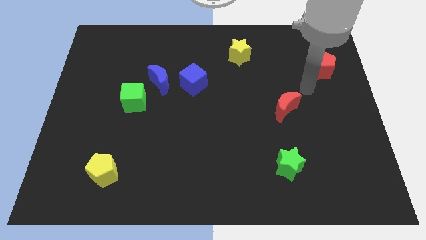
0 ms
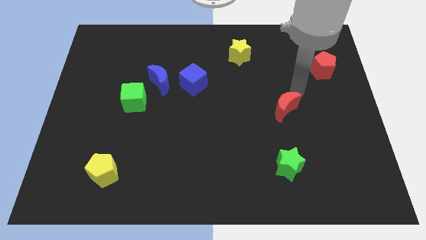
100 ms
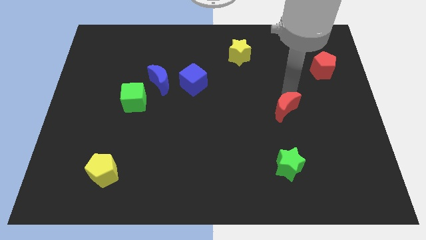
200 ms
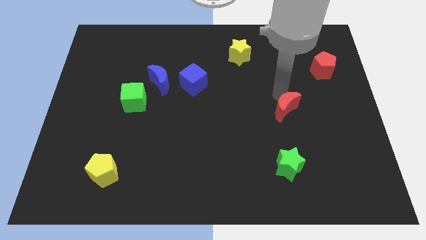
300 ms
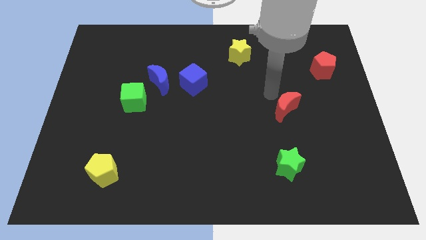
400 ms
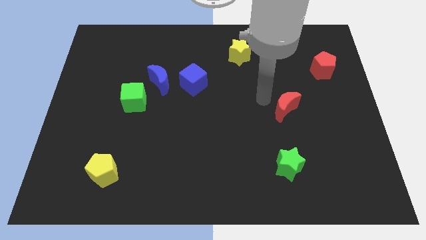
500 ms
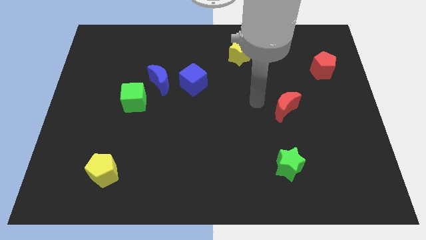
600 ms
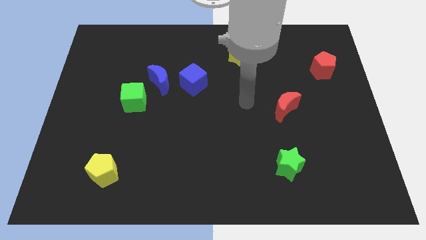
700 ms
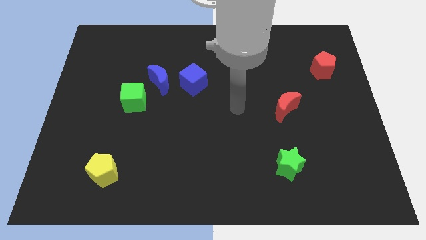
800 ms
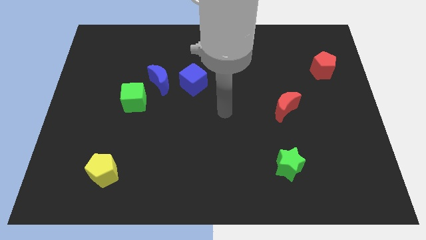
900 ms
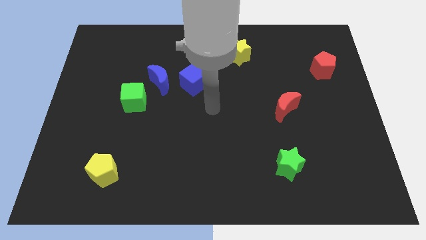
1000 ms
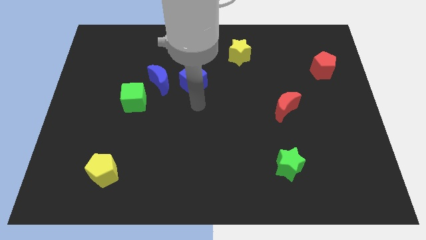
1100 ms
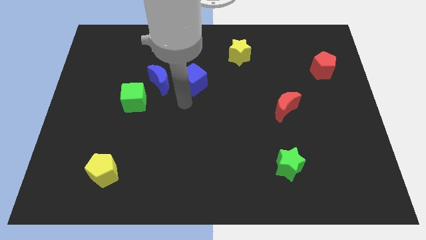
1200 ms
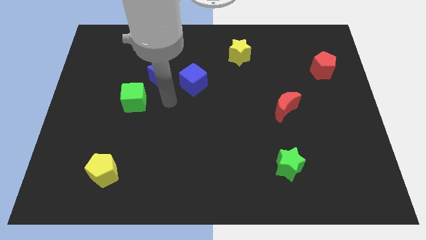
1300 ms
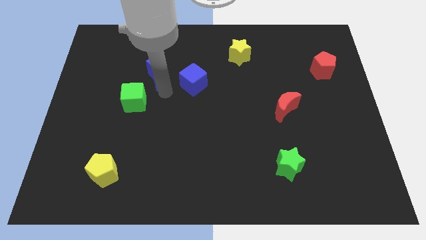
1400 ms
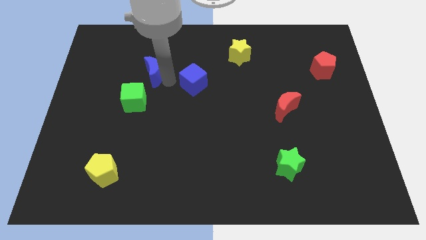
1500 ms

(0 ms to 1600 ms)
separate the blue cube from the blue moon

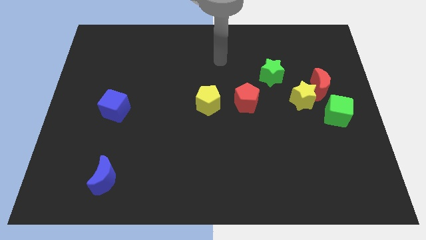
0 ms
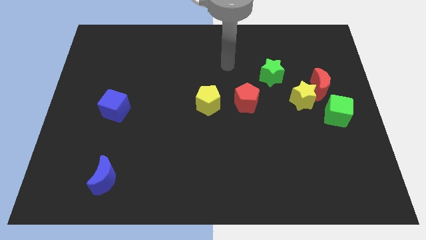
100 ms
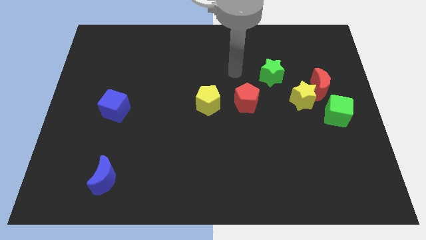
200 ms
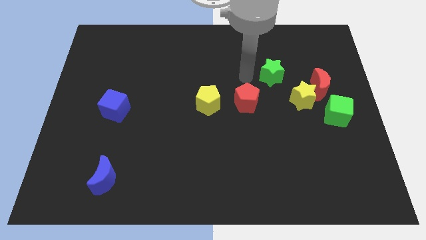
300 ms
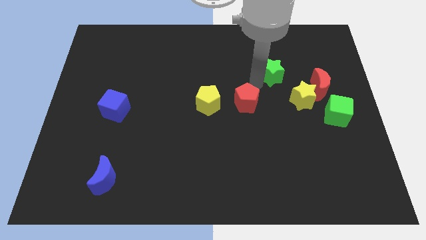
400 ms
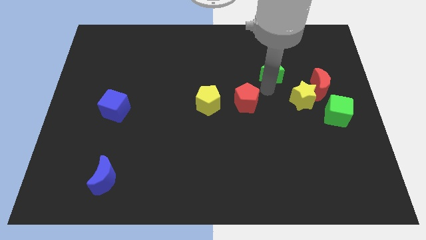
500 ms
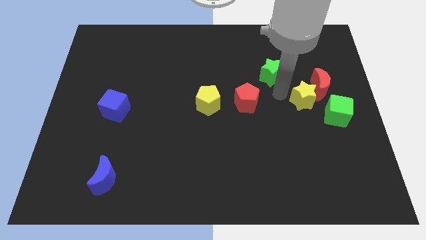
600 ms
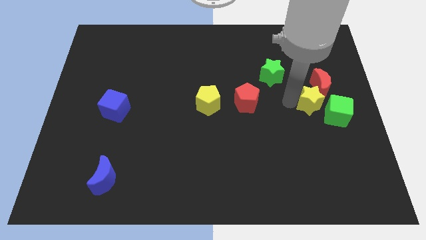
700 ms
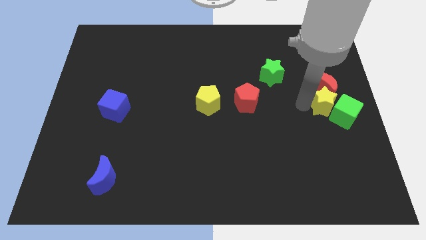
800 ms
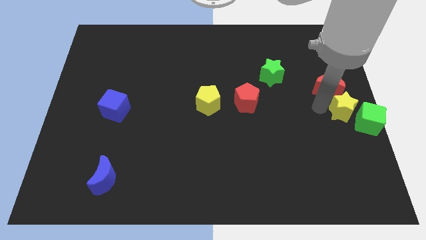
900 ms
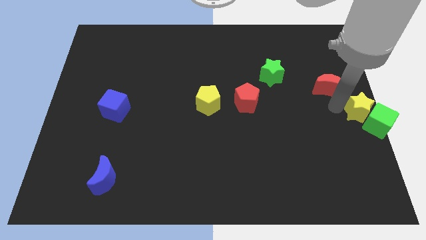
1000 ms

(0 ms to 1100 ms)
separate the red moon from the yellow star and green cube

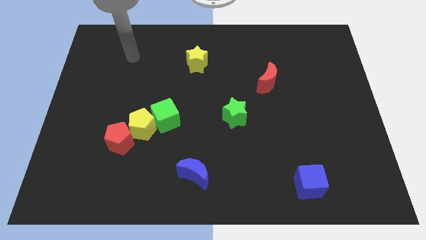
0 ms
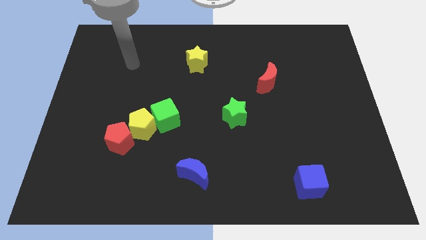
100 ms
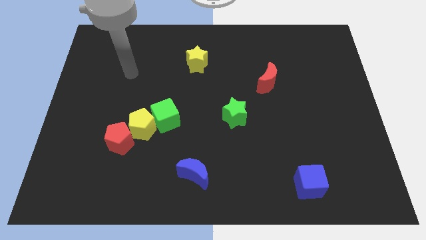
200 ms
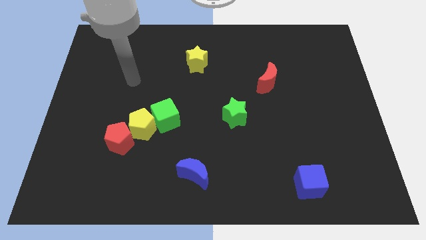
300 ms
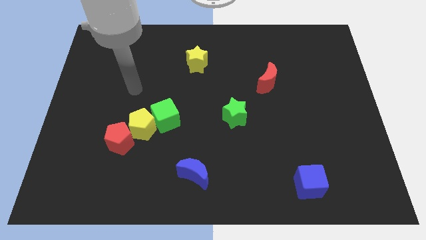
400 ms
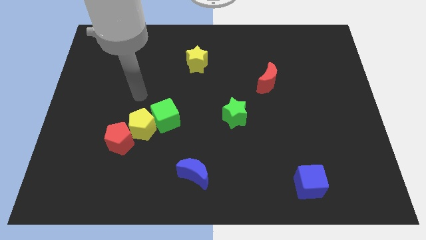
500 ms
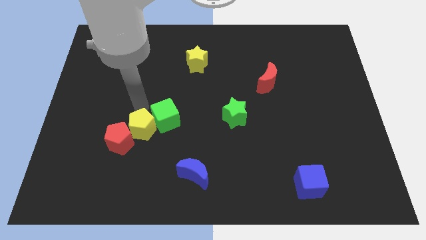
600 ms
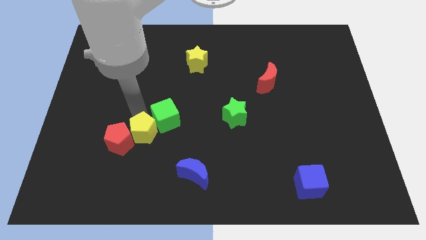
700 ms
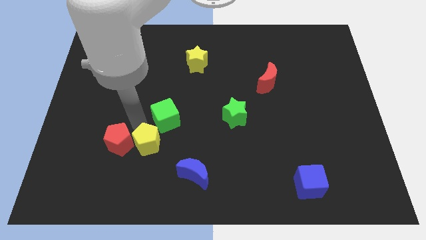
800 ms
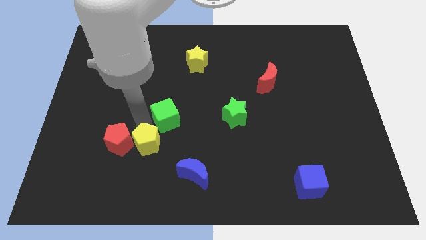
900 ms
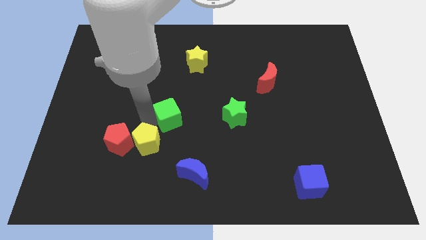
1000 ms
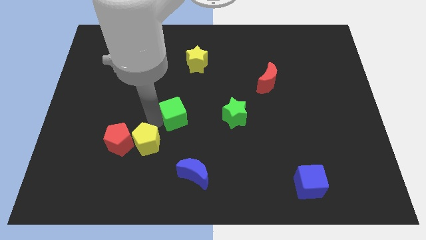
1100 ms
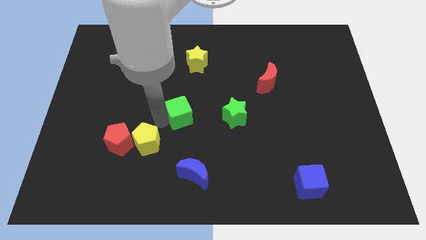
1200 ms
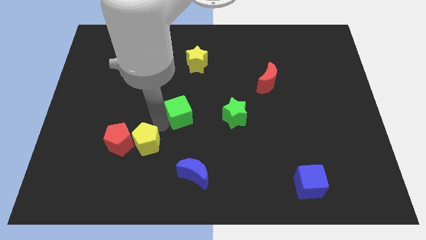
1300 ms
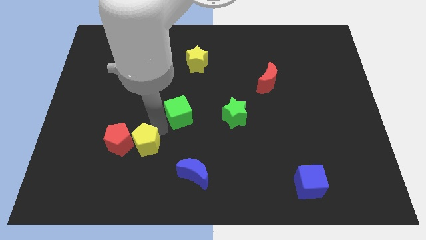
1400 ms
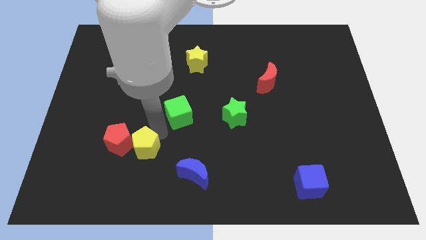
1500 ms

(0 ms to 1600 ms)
pull the green cube apart from the yellow pentagon

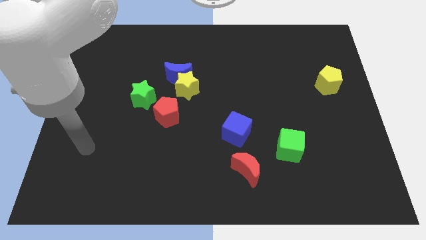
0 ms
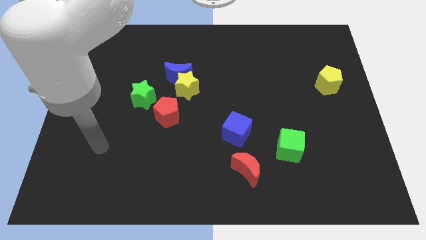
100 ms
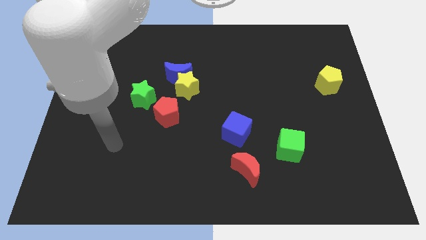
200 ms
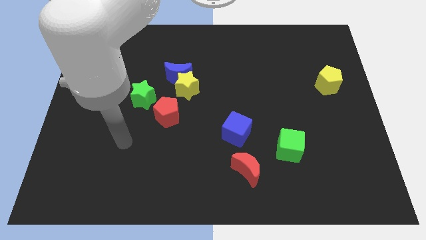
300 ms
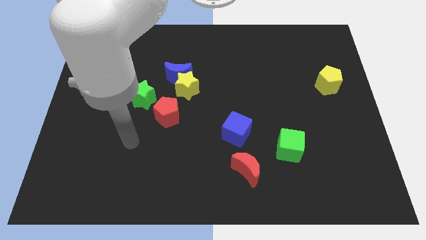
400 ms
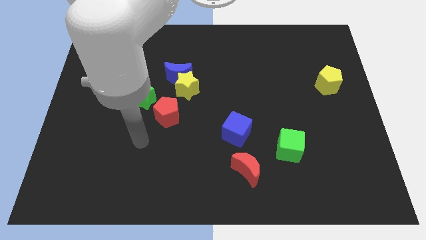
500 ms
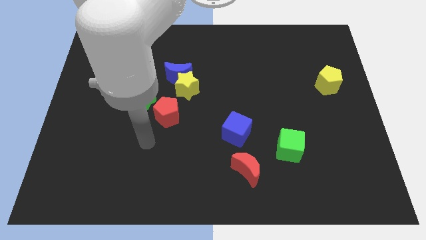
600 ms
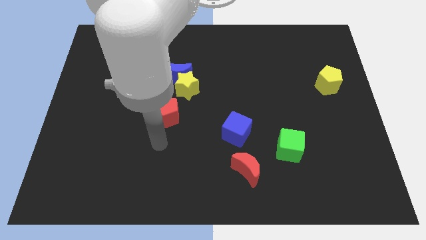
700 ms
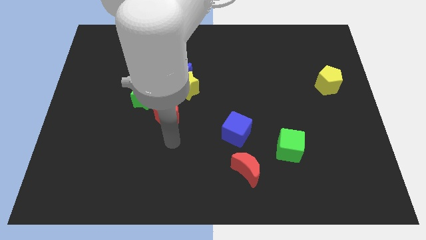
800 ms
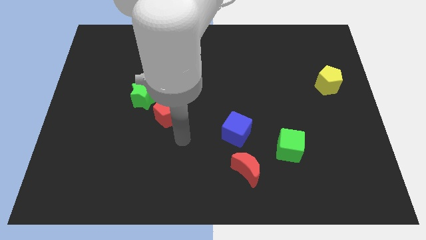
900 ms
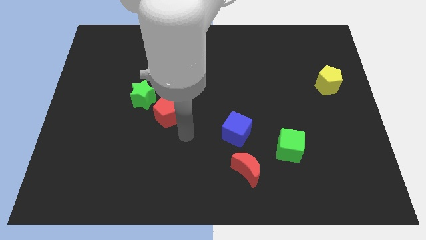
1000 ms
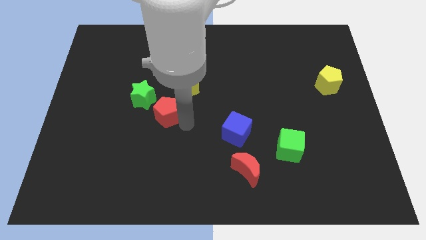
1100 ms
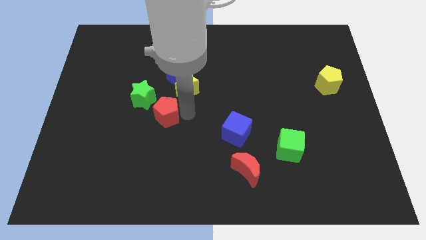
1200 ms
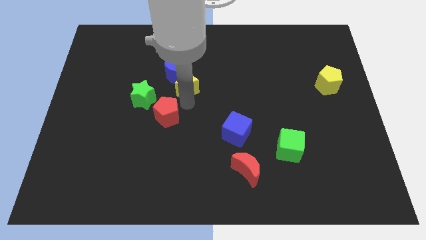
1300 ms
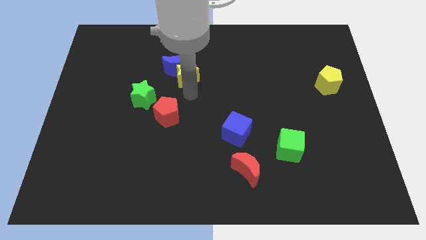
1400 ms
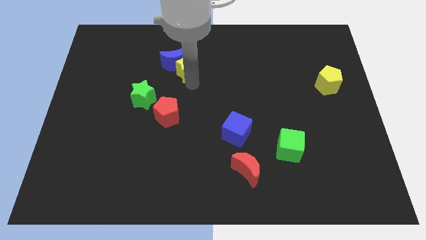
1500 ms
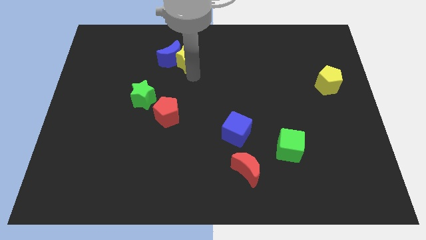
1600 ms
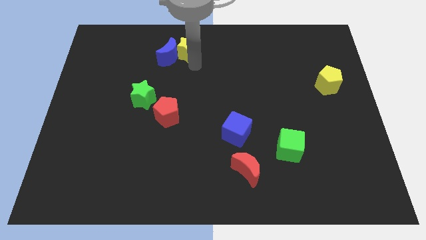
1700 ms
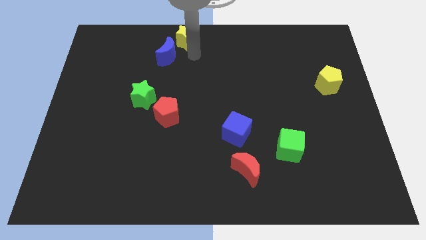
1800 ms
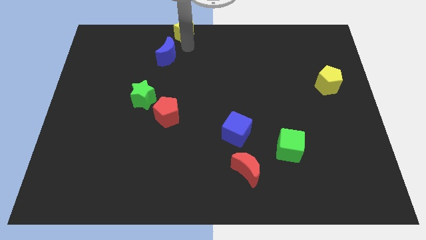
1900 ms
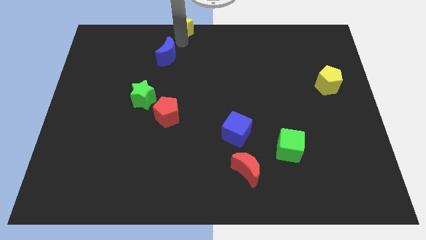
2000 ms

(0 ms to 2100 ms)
separate the blue moon from the yellow star

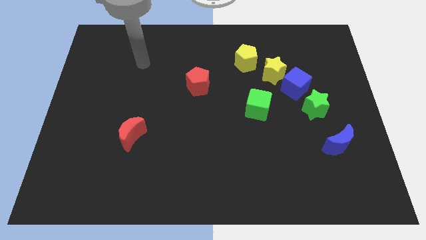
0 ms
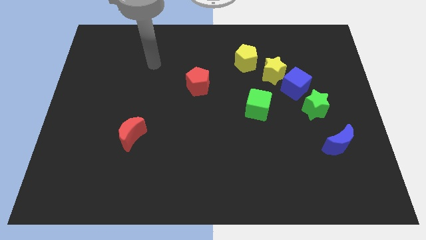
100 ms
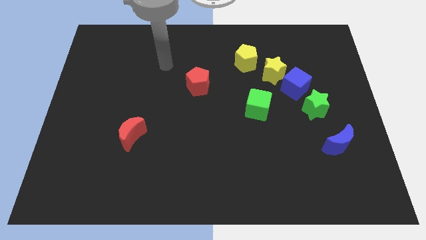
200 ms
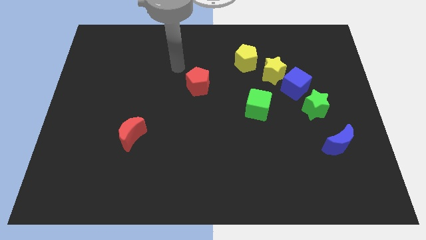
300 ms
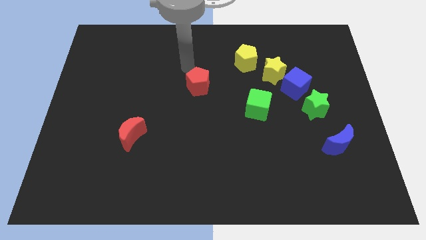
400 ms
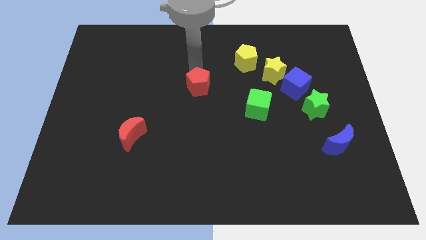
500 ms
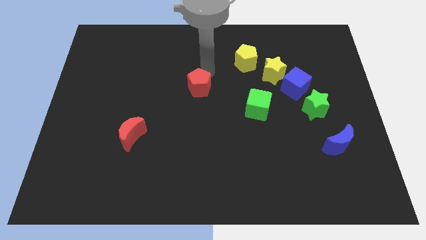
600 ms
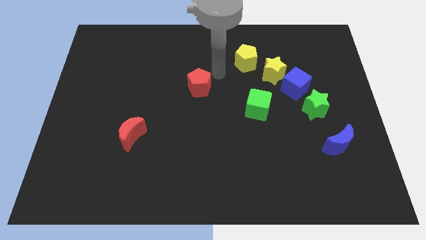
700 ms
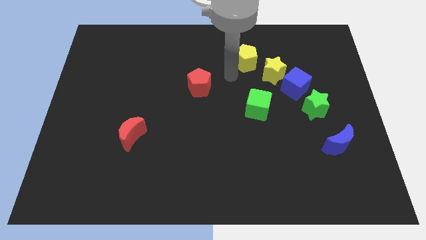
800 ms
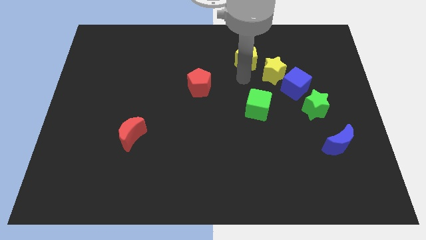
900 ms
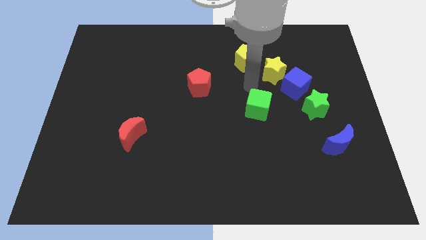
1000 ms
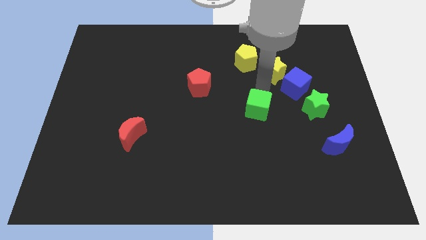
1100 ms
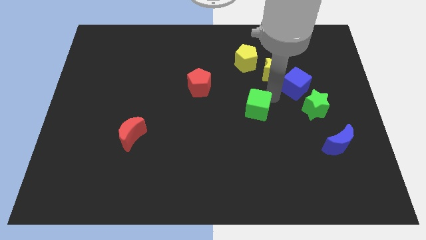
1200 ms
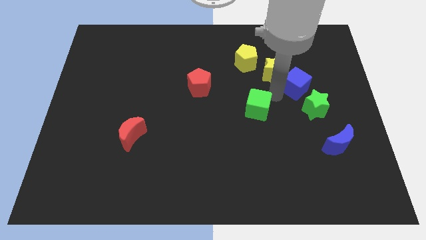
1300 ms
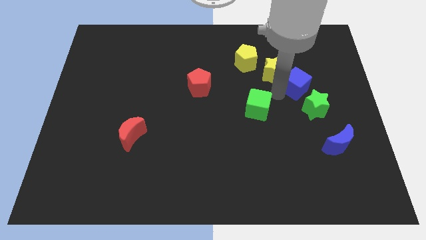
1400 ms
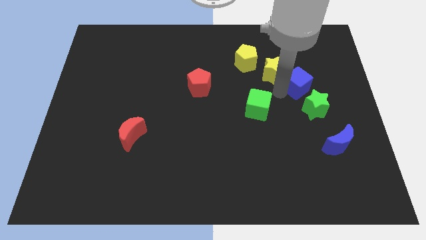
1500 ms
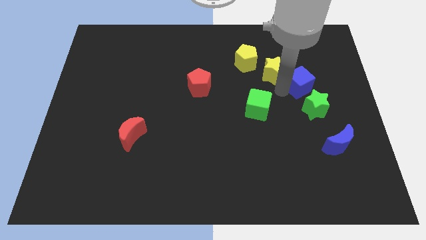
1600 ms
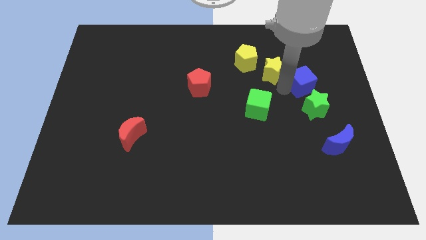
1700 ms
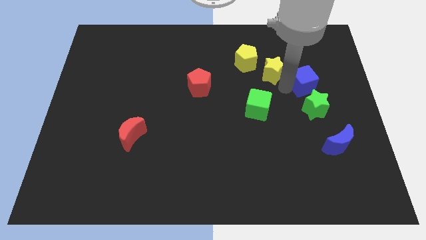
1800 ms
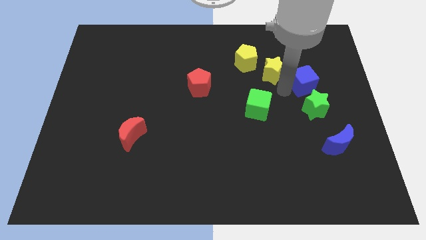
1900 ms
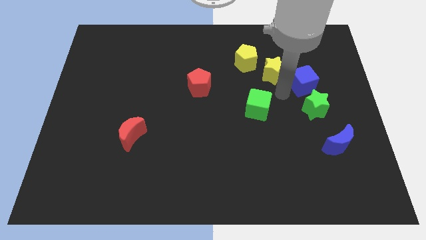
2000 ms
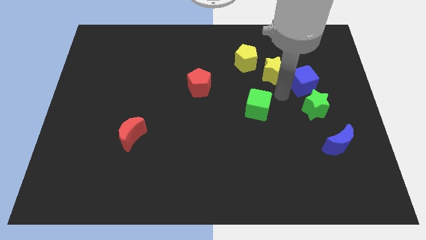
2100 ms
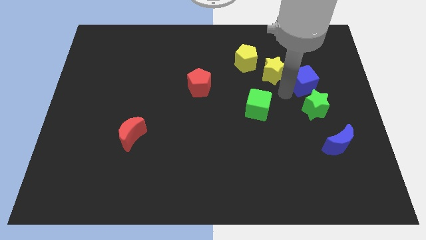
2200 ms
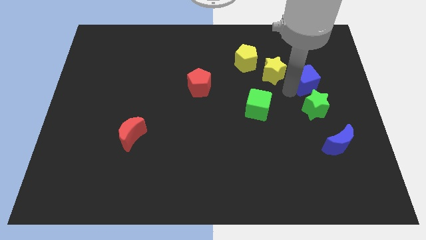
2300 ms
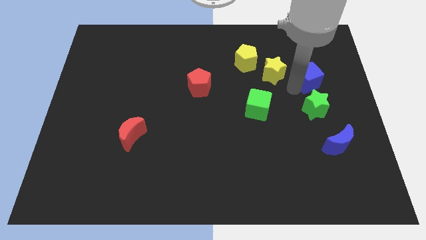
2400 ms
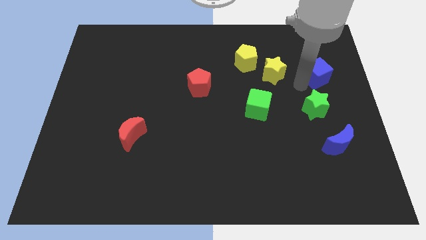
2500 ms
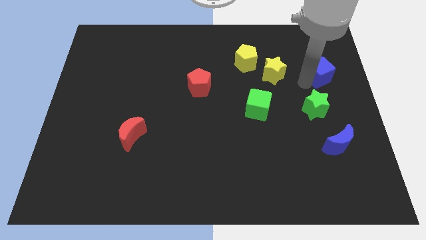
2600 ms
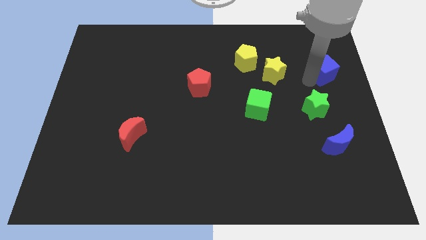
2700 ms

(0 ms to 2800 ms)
separate the blue cube from the yellow star and green star
